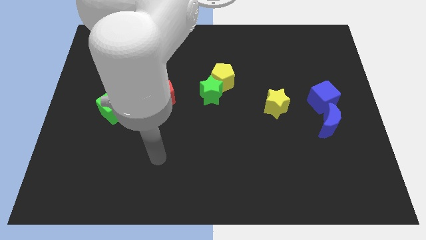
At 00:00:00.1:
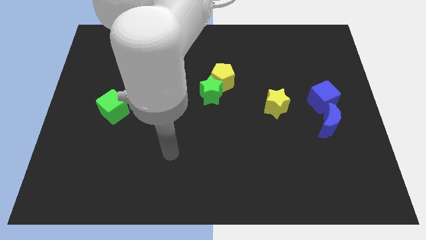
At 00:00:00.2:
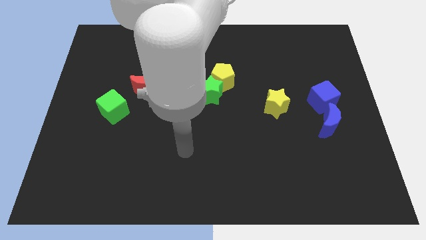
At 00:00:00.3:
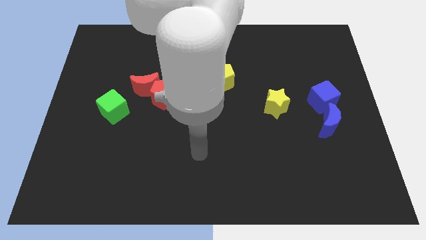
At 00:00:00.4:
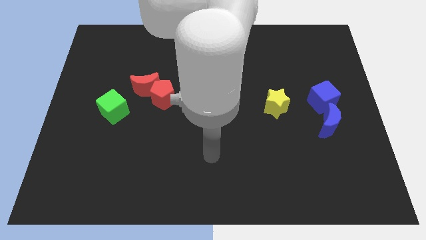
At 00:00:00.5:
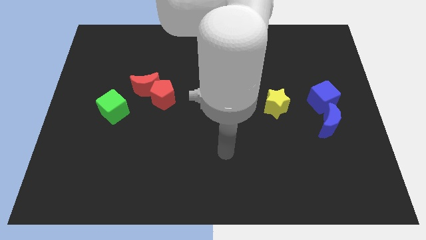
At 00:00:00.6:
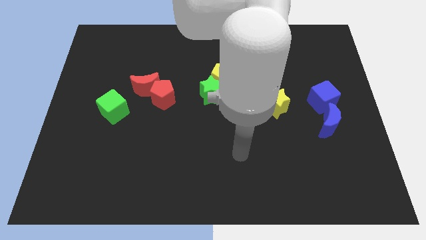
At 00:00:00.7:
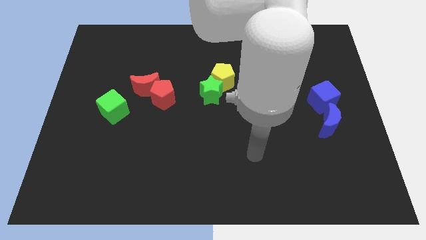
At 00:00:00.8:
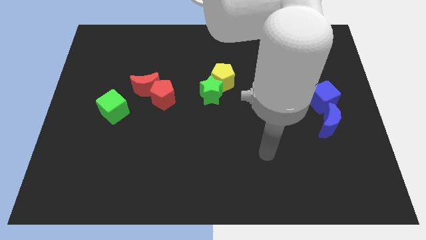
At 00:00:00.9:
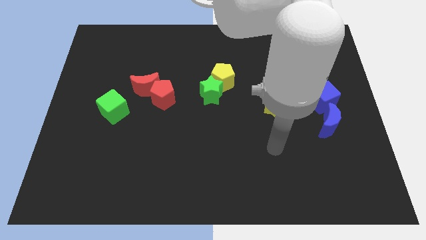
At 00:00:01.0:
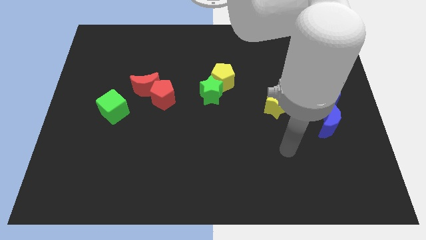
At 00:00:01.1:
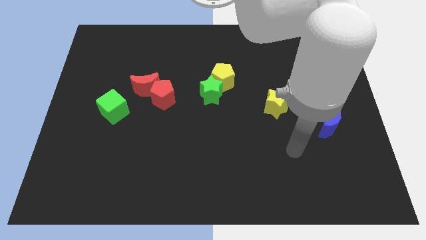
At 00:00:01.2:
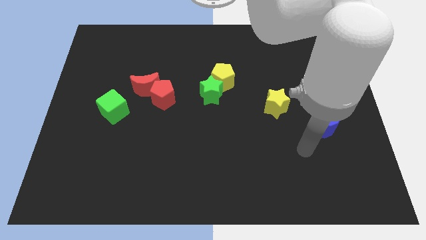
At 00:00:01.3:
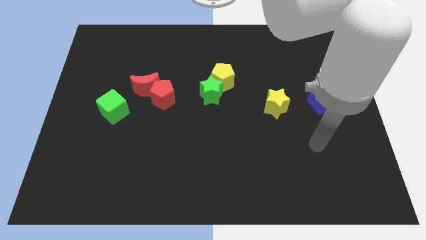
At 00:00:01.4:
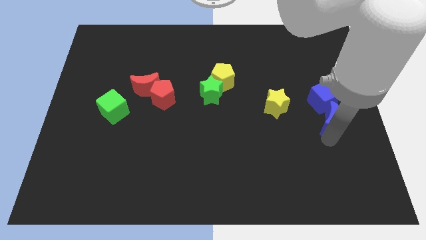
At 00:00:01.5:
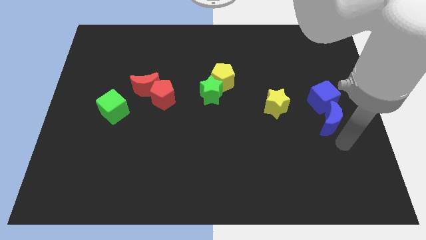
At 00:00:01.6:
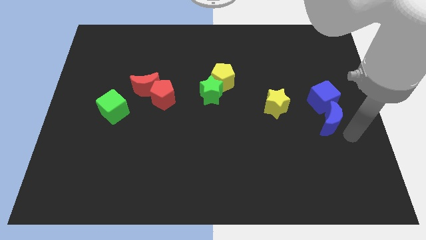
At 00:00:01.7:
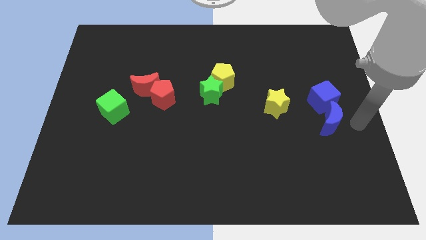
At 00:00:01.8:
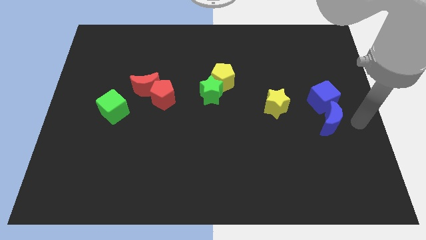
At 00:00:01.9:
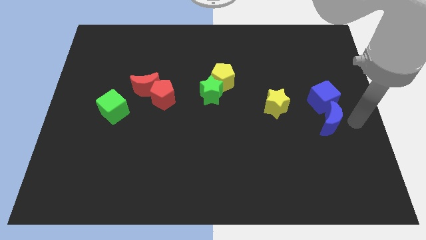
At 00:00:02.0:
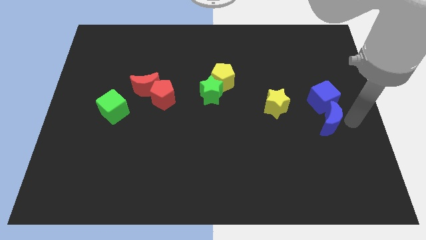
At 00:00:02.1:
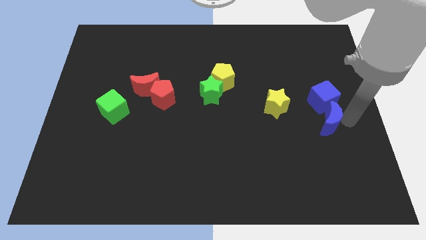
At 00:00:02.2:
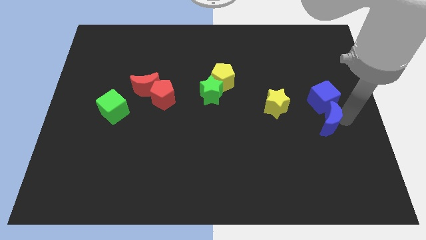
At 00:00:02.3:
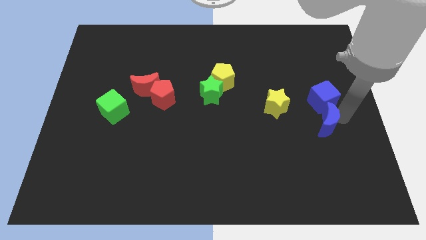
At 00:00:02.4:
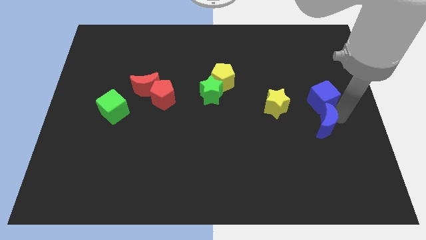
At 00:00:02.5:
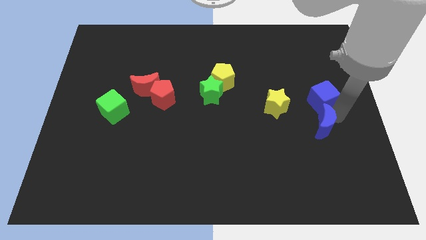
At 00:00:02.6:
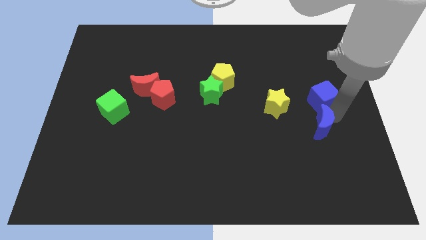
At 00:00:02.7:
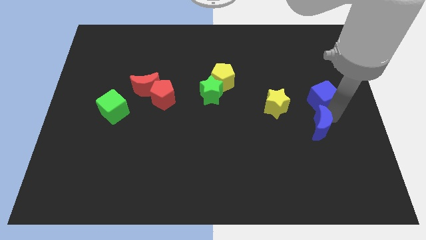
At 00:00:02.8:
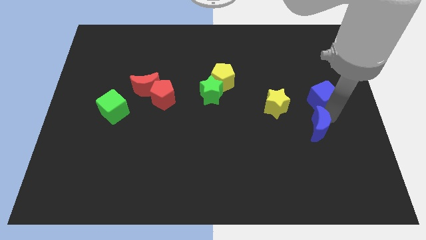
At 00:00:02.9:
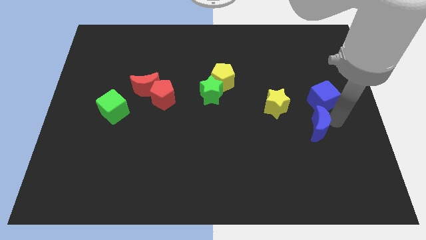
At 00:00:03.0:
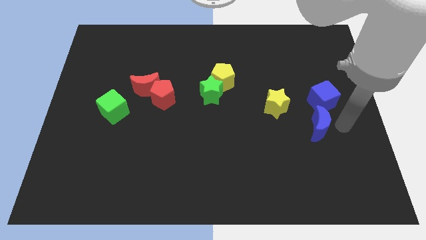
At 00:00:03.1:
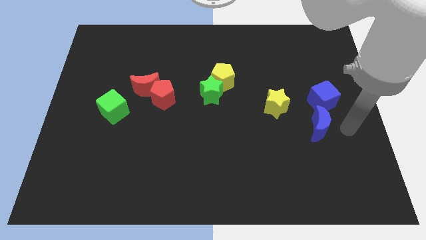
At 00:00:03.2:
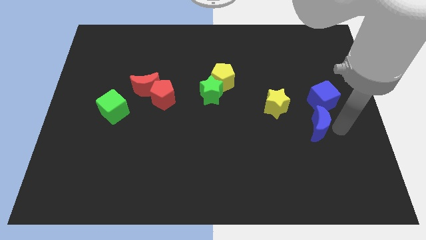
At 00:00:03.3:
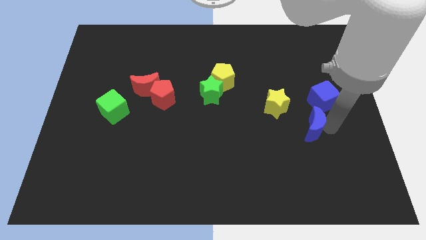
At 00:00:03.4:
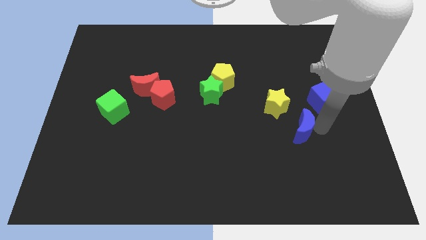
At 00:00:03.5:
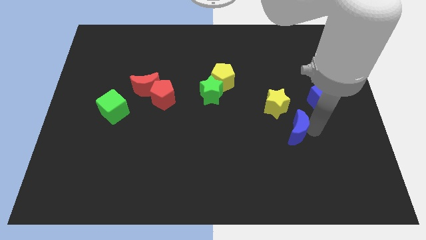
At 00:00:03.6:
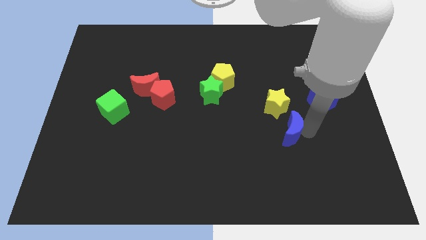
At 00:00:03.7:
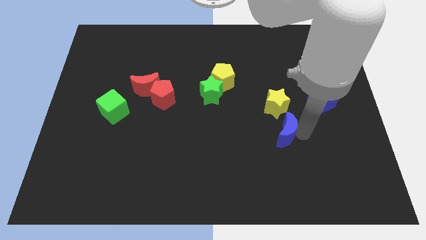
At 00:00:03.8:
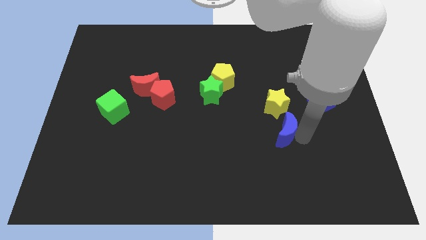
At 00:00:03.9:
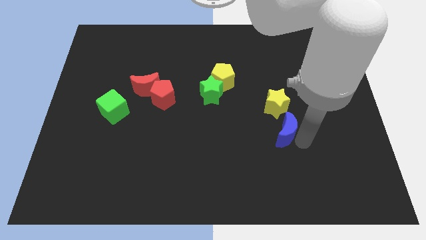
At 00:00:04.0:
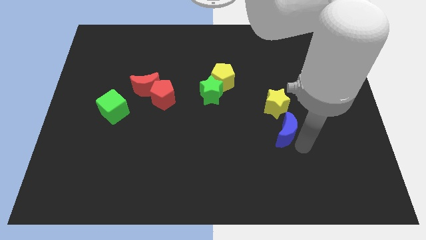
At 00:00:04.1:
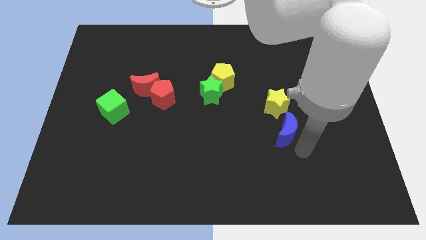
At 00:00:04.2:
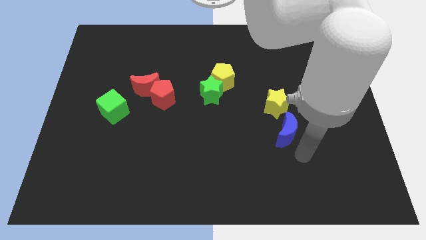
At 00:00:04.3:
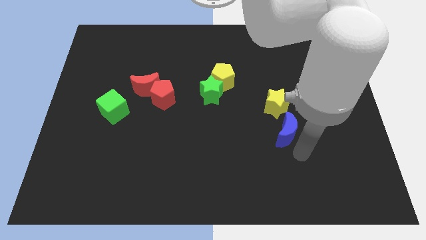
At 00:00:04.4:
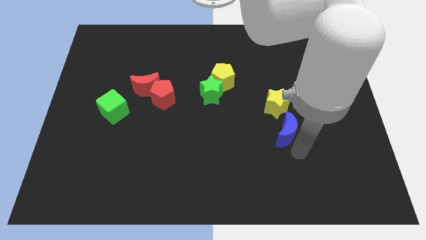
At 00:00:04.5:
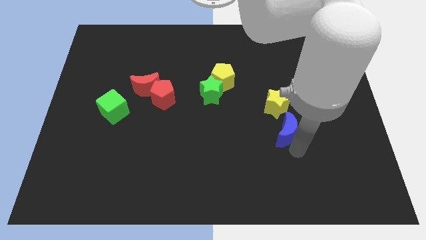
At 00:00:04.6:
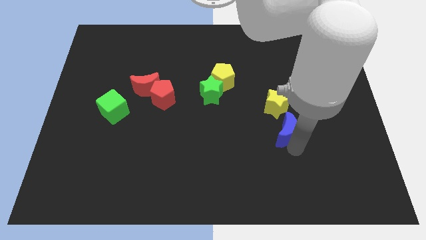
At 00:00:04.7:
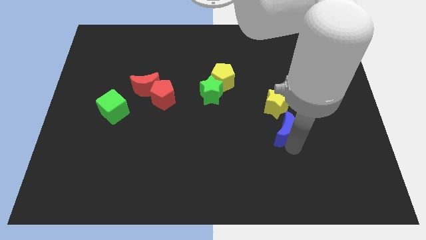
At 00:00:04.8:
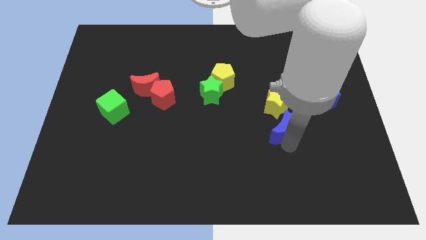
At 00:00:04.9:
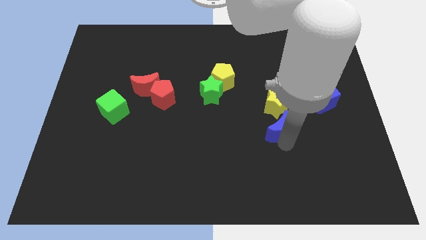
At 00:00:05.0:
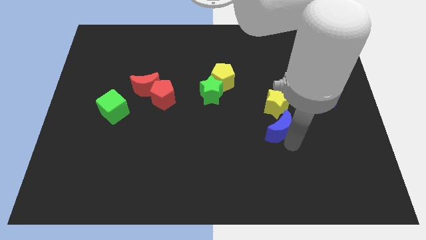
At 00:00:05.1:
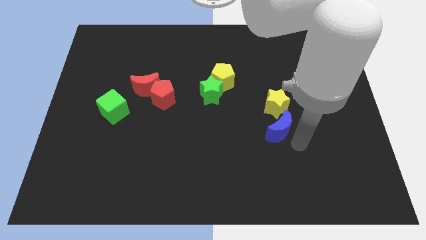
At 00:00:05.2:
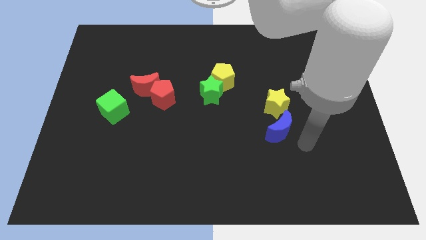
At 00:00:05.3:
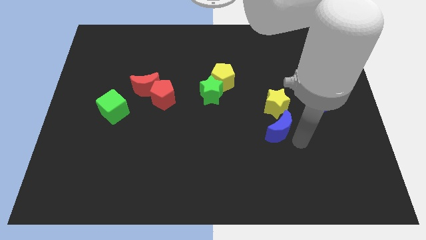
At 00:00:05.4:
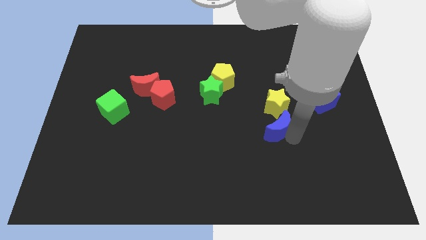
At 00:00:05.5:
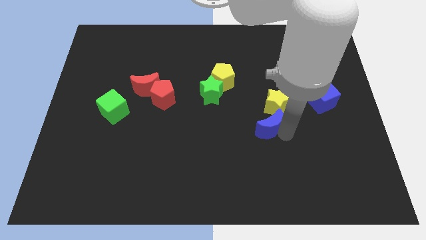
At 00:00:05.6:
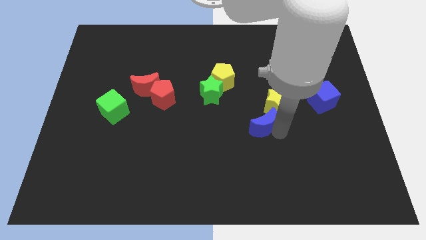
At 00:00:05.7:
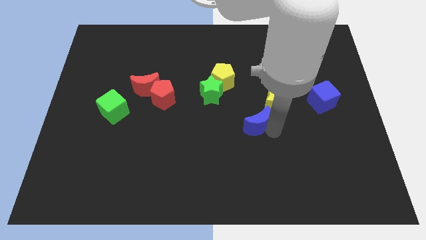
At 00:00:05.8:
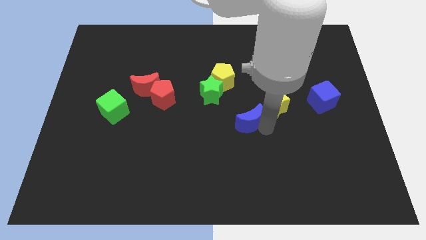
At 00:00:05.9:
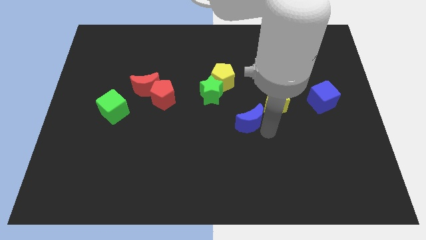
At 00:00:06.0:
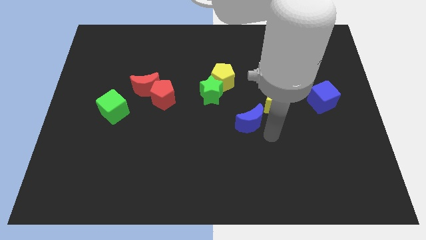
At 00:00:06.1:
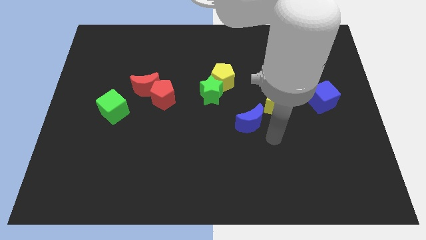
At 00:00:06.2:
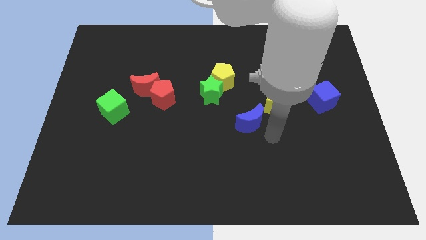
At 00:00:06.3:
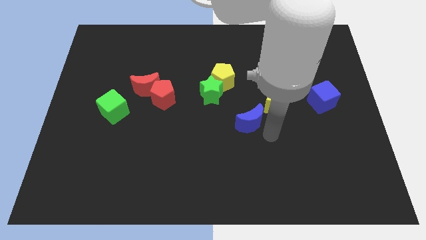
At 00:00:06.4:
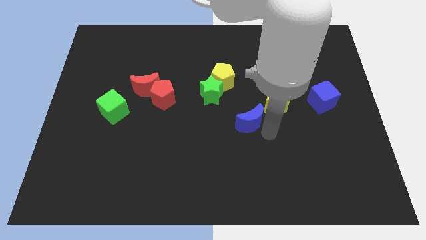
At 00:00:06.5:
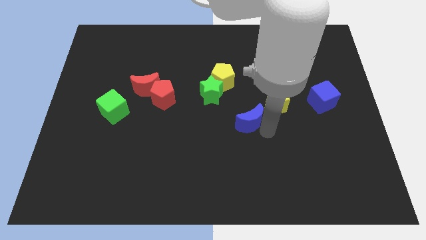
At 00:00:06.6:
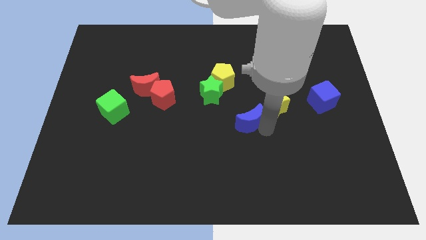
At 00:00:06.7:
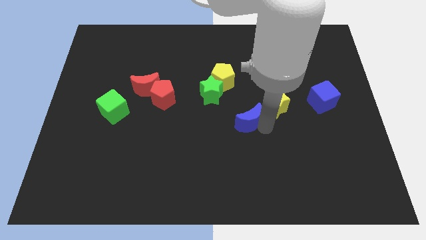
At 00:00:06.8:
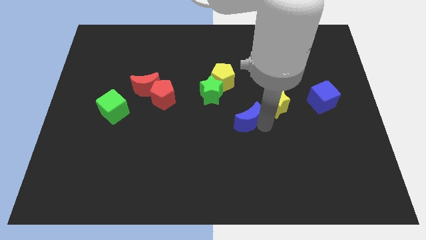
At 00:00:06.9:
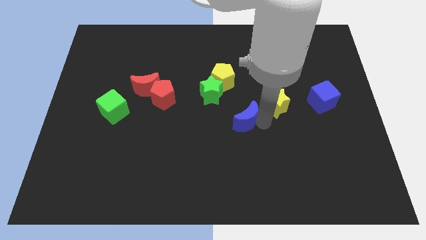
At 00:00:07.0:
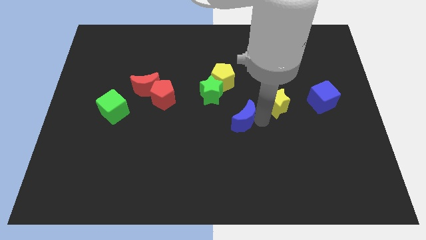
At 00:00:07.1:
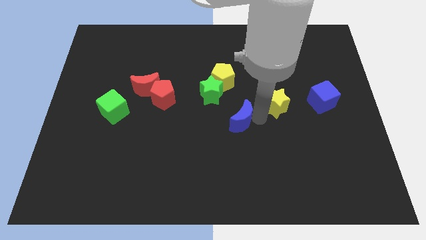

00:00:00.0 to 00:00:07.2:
put the blue moon below the yellow pentagon

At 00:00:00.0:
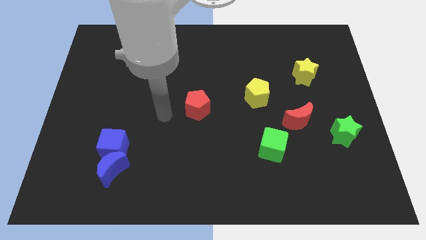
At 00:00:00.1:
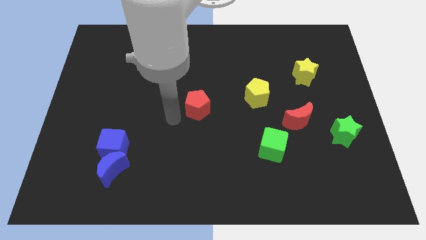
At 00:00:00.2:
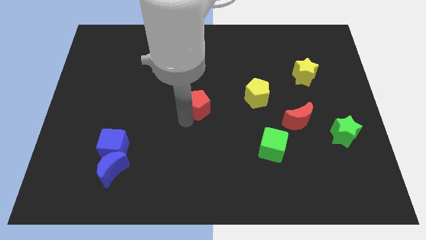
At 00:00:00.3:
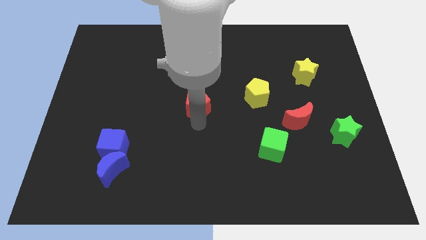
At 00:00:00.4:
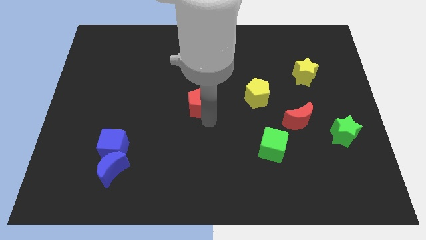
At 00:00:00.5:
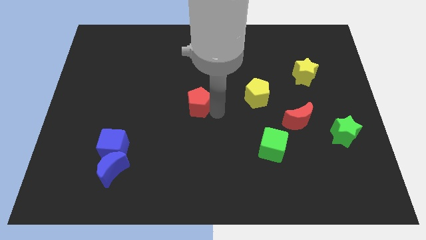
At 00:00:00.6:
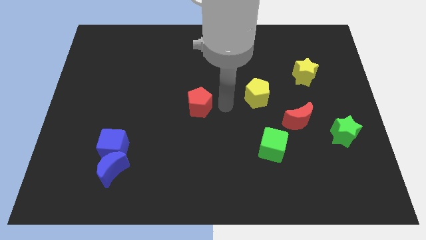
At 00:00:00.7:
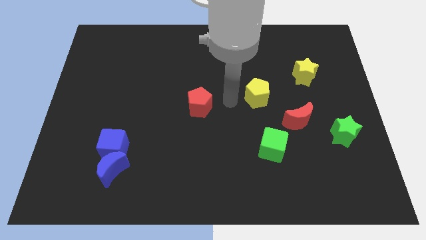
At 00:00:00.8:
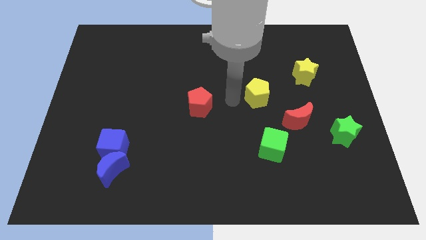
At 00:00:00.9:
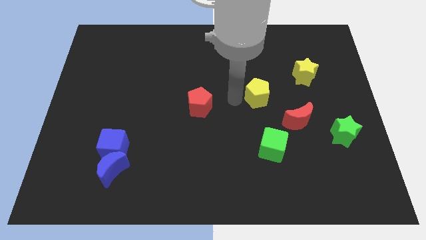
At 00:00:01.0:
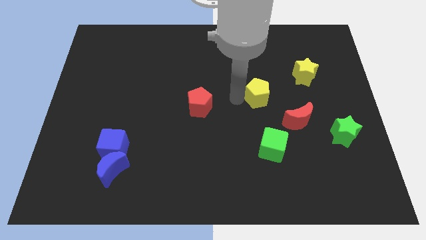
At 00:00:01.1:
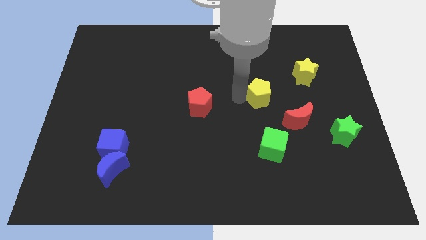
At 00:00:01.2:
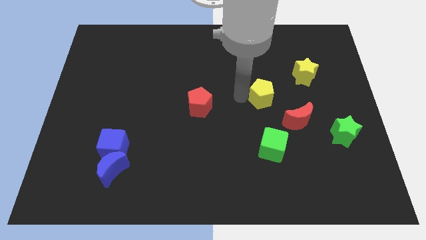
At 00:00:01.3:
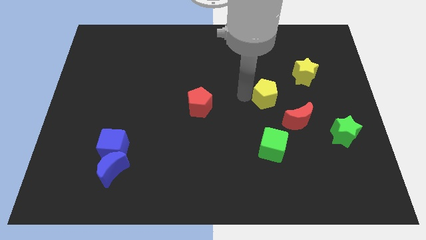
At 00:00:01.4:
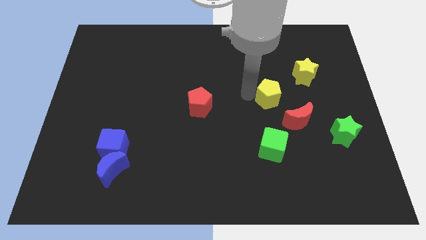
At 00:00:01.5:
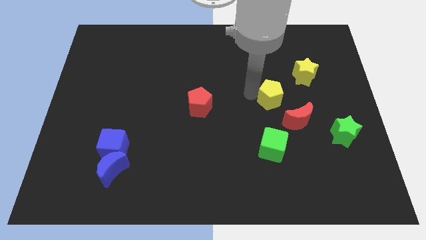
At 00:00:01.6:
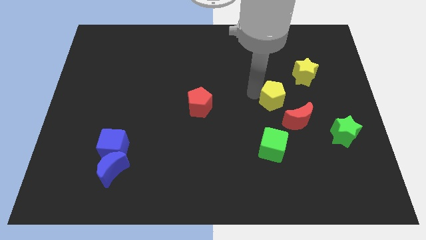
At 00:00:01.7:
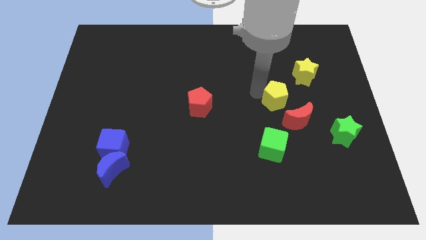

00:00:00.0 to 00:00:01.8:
move the yellow pentagon to the top of the red moon
